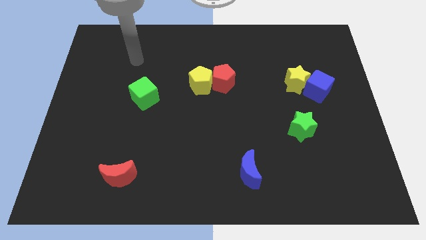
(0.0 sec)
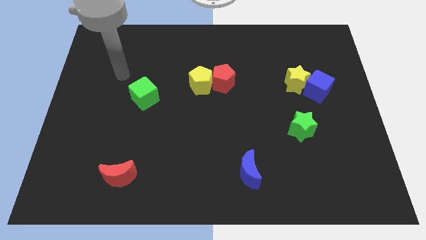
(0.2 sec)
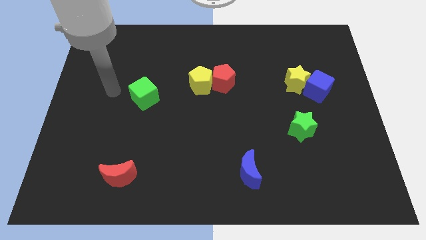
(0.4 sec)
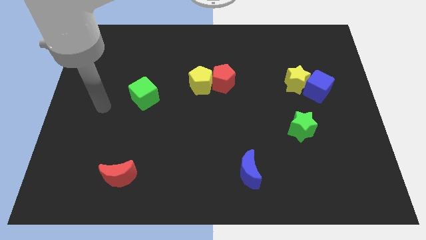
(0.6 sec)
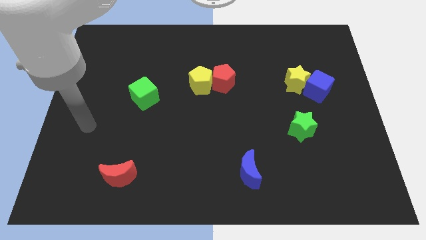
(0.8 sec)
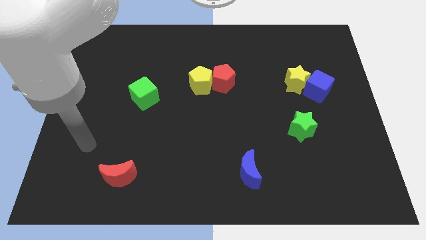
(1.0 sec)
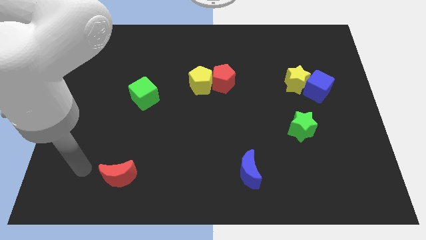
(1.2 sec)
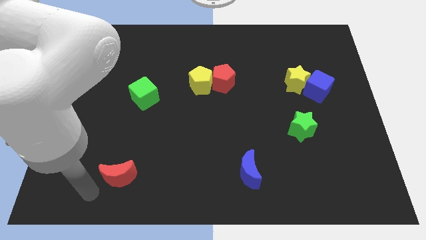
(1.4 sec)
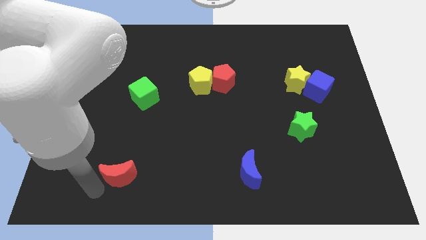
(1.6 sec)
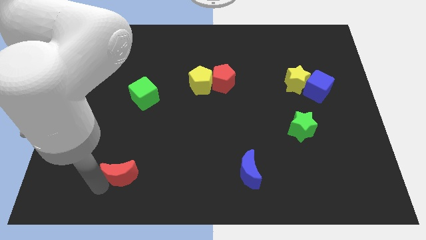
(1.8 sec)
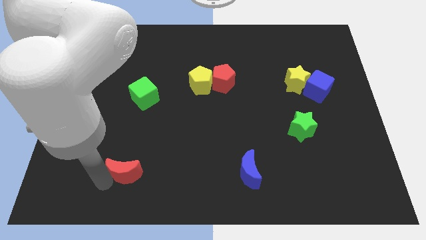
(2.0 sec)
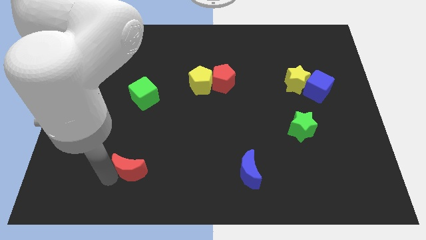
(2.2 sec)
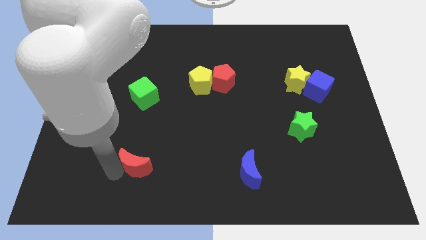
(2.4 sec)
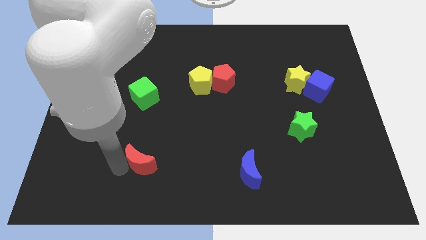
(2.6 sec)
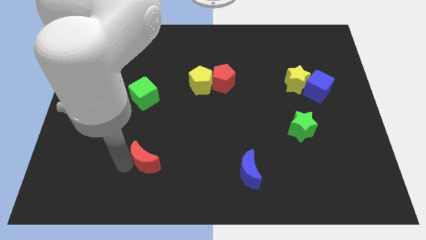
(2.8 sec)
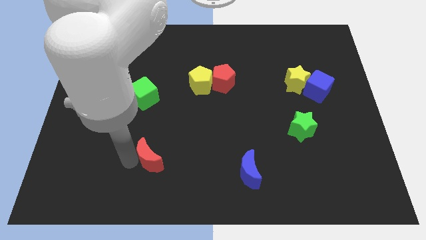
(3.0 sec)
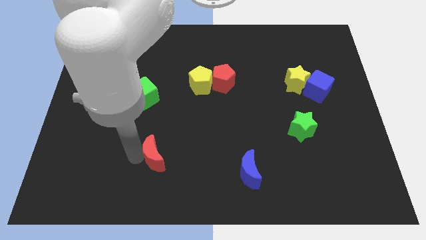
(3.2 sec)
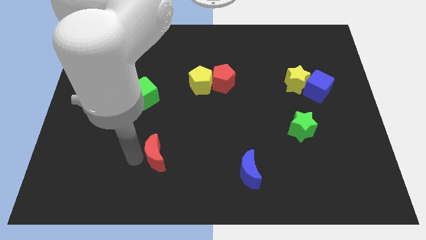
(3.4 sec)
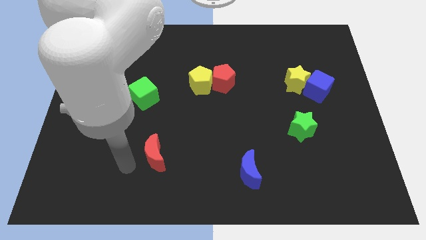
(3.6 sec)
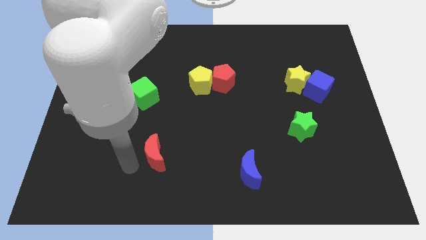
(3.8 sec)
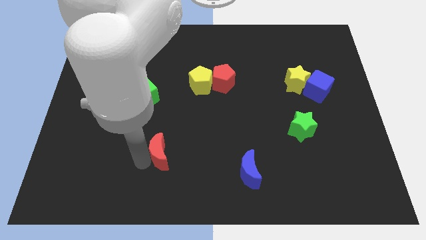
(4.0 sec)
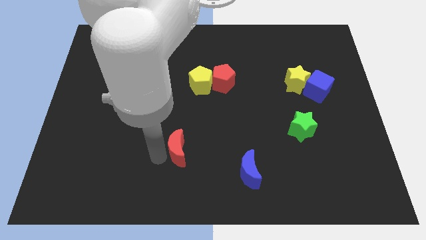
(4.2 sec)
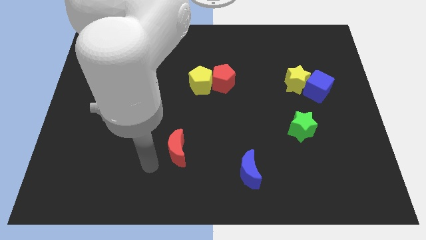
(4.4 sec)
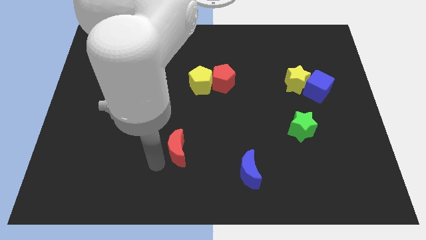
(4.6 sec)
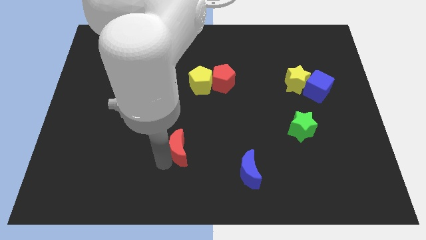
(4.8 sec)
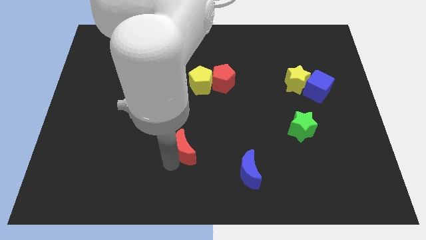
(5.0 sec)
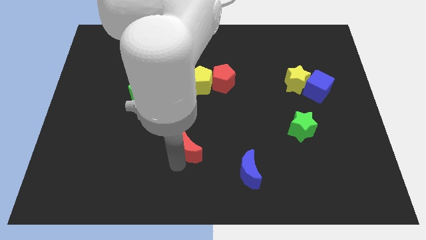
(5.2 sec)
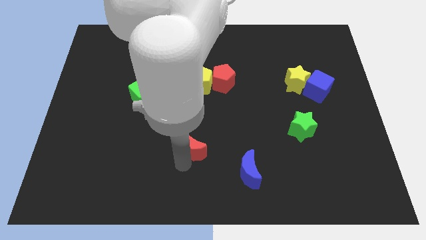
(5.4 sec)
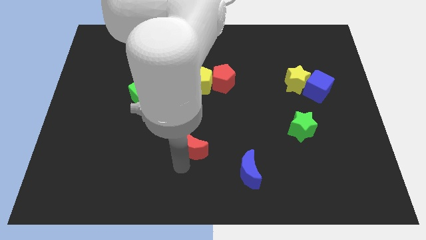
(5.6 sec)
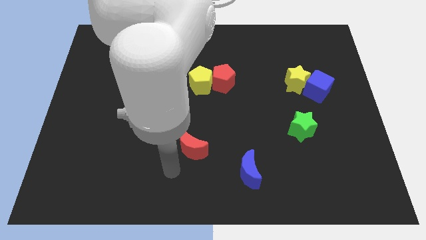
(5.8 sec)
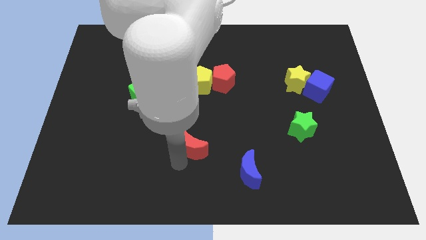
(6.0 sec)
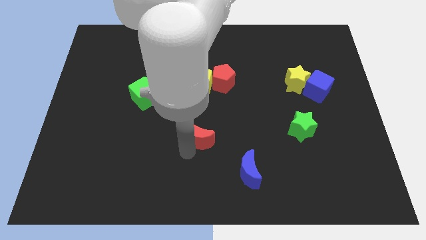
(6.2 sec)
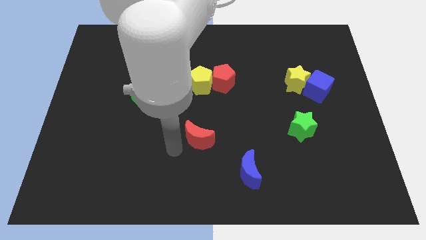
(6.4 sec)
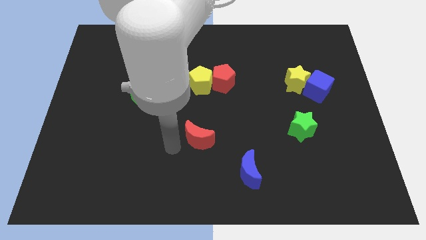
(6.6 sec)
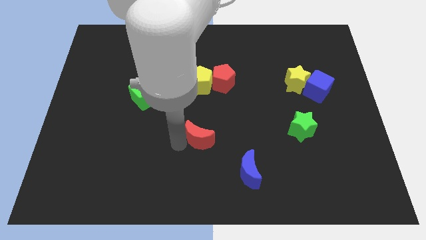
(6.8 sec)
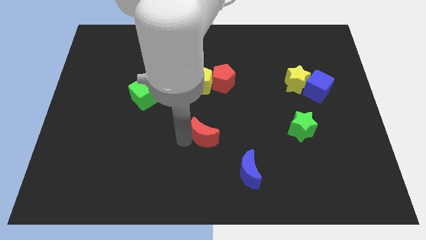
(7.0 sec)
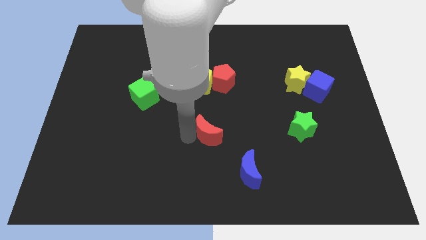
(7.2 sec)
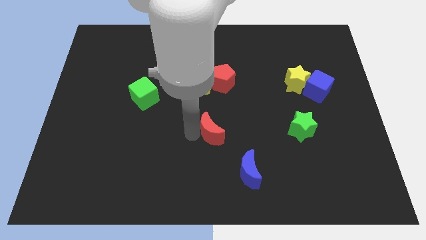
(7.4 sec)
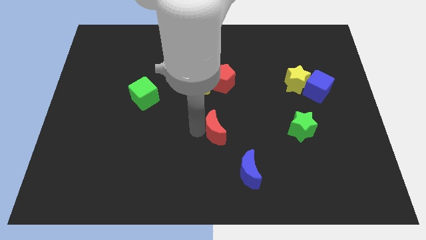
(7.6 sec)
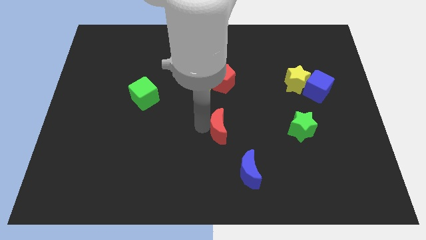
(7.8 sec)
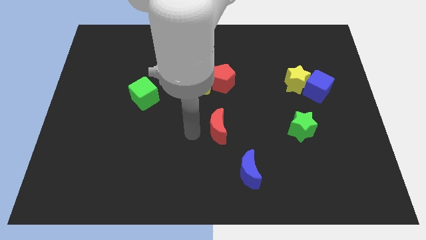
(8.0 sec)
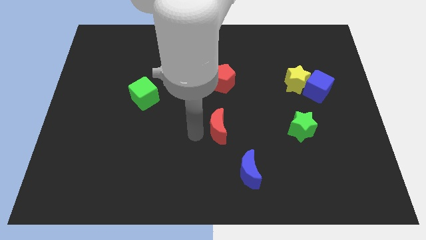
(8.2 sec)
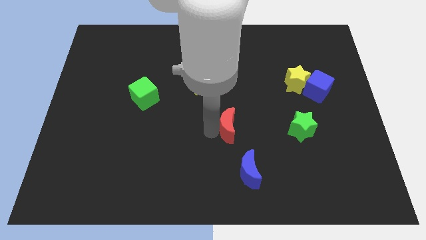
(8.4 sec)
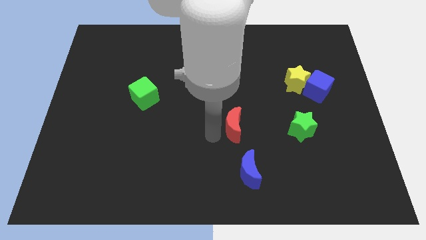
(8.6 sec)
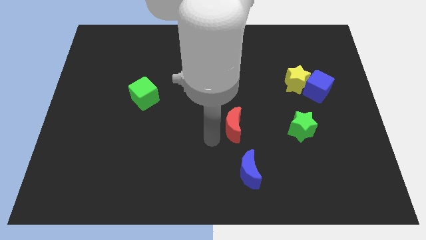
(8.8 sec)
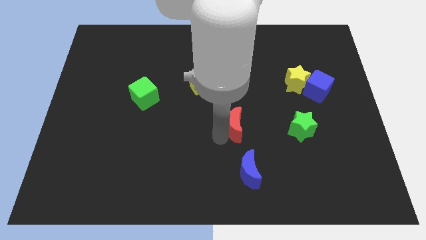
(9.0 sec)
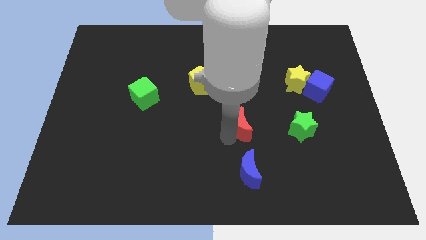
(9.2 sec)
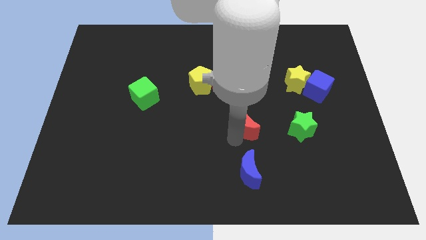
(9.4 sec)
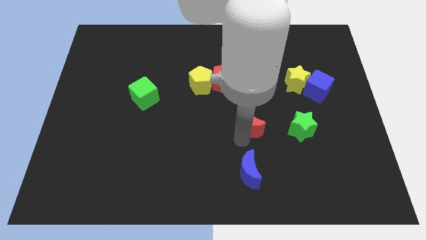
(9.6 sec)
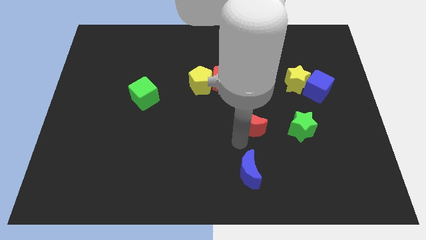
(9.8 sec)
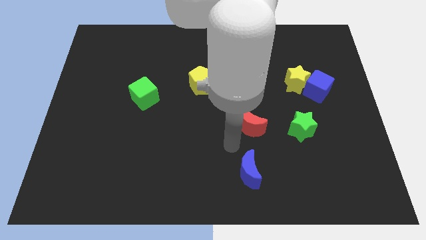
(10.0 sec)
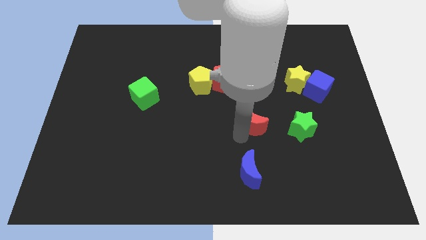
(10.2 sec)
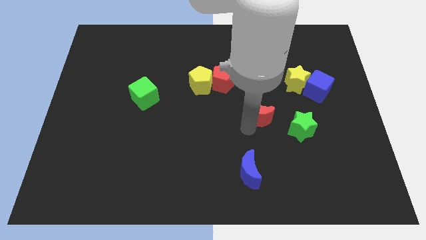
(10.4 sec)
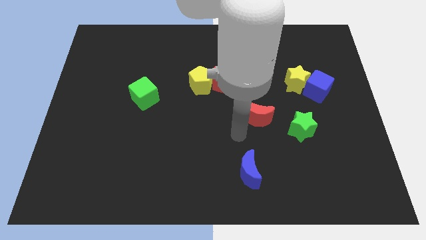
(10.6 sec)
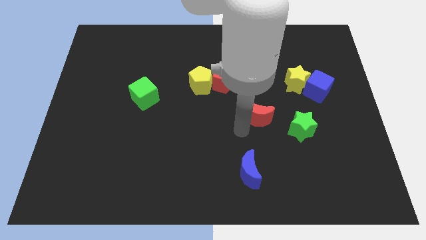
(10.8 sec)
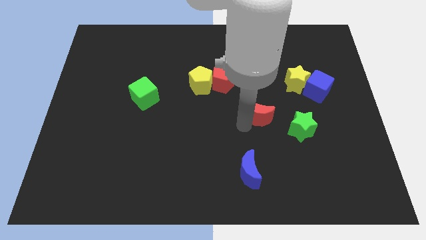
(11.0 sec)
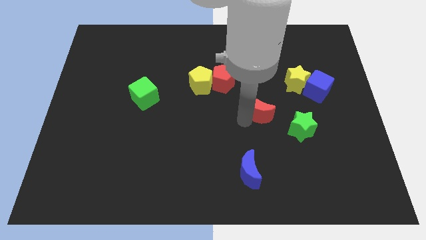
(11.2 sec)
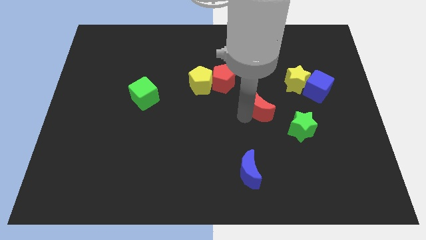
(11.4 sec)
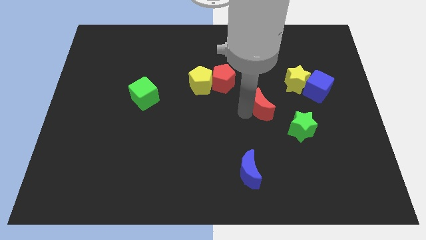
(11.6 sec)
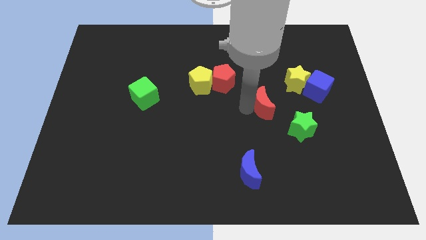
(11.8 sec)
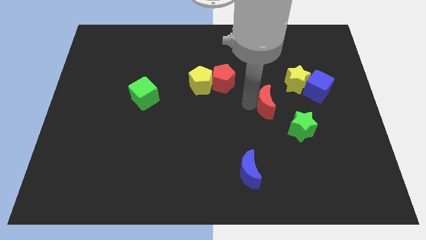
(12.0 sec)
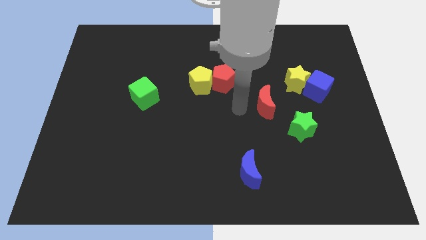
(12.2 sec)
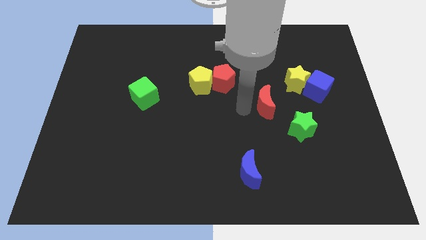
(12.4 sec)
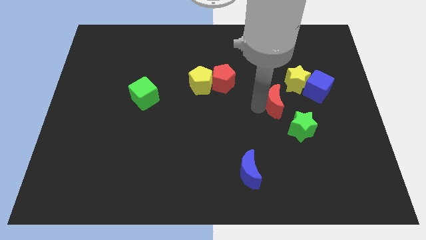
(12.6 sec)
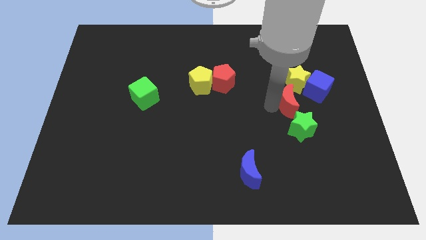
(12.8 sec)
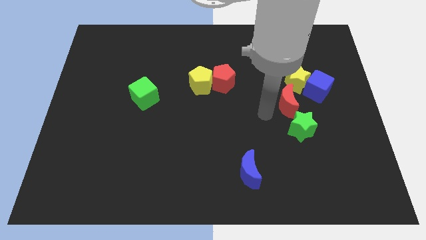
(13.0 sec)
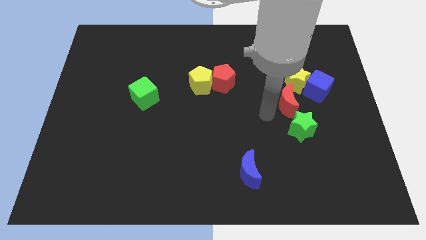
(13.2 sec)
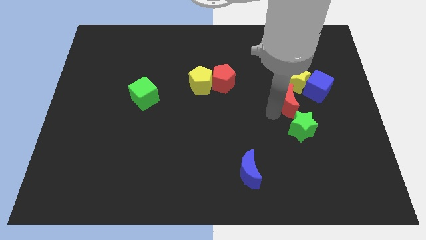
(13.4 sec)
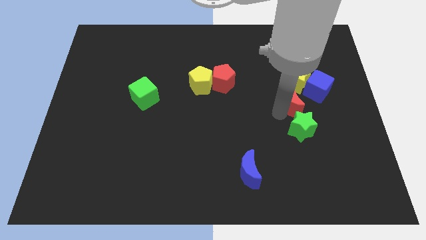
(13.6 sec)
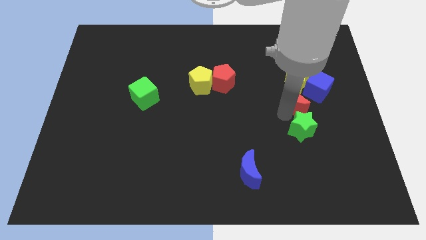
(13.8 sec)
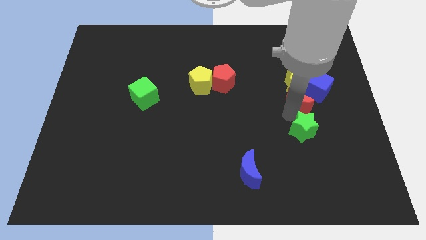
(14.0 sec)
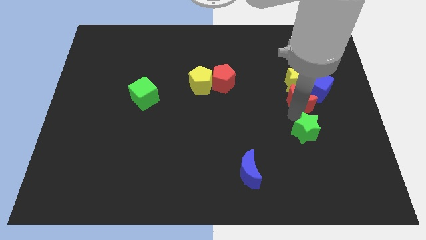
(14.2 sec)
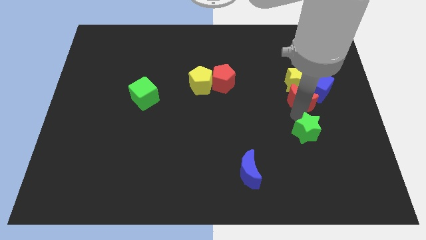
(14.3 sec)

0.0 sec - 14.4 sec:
slide the red moon close to the blue cube

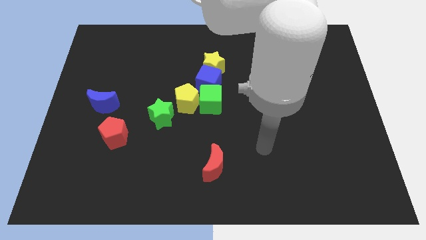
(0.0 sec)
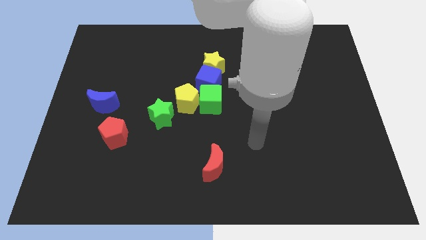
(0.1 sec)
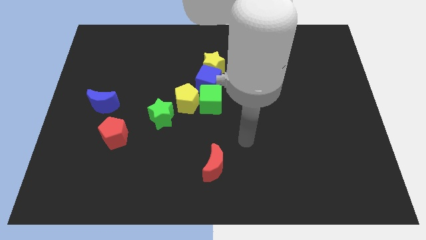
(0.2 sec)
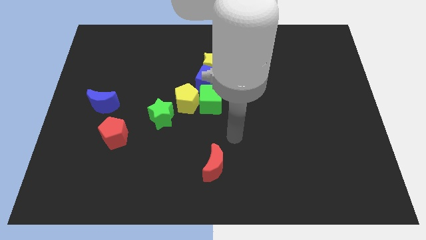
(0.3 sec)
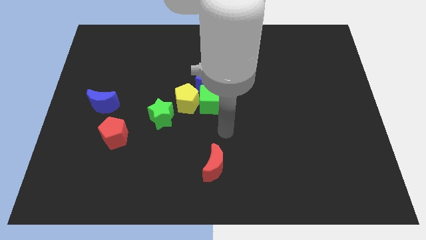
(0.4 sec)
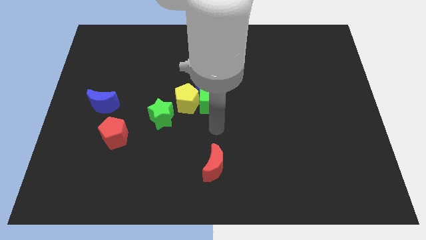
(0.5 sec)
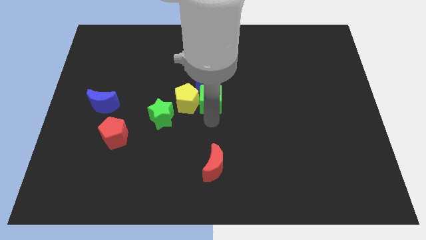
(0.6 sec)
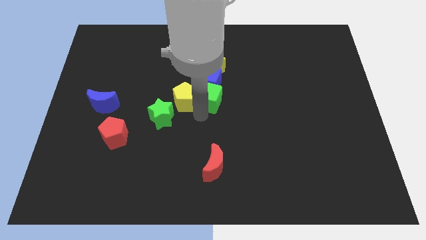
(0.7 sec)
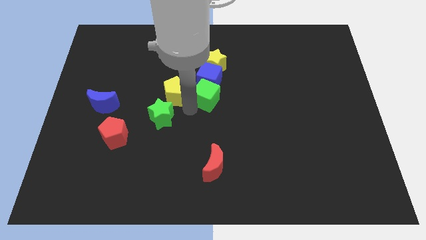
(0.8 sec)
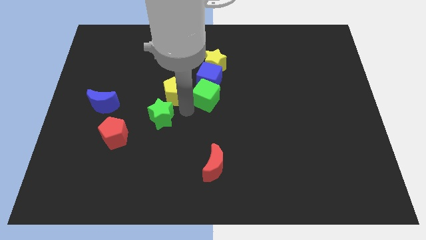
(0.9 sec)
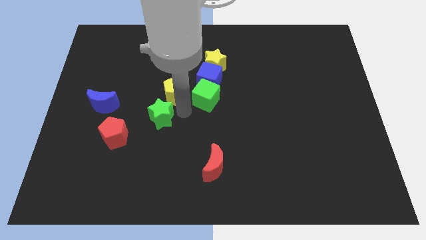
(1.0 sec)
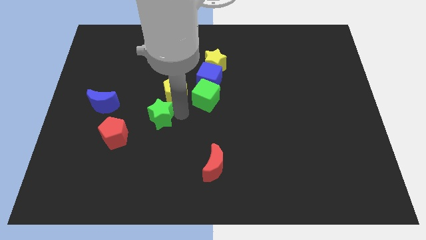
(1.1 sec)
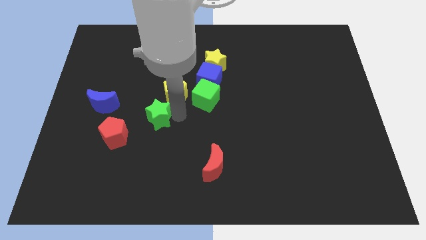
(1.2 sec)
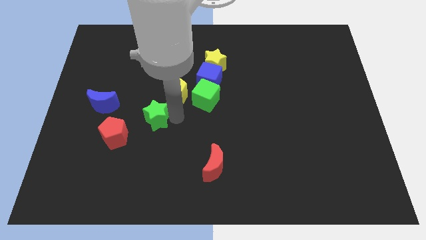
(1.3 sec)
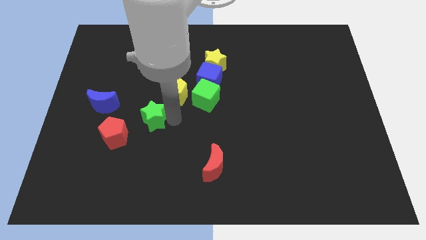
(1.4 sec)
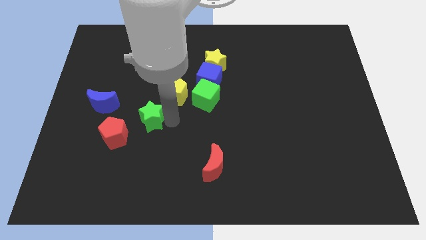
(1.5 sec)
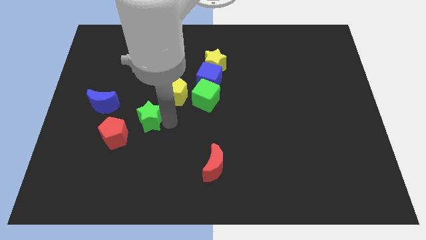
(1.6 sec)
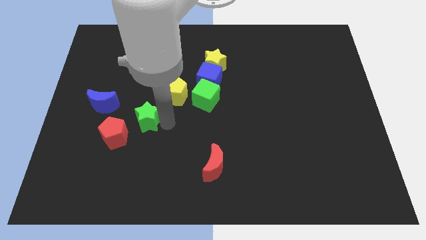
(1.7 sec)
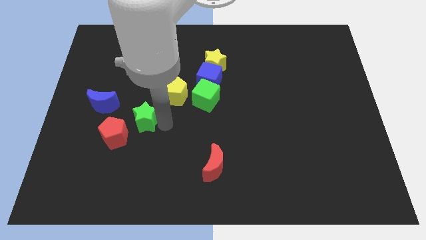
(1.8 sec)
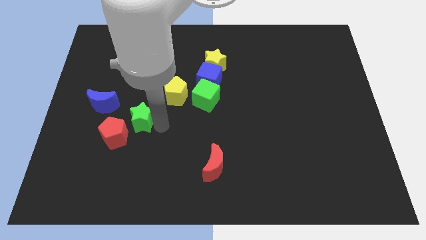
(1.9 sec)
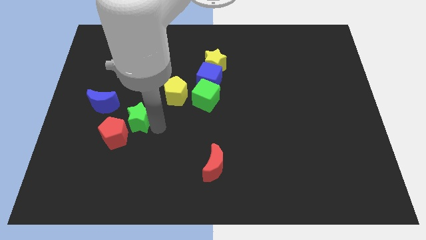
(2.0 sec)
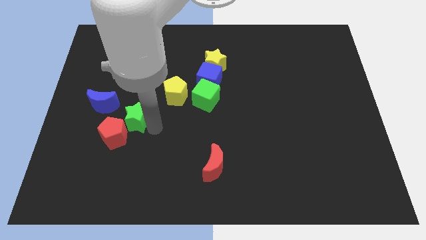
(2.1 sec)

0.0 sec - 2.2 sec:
push the green star close to the red pentagon
